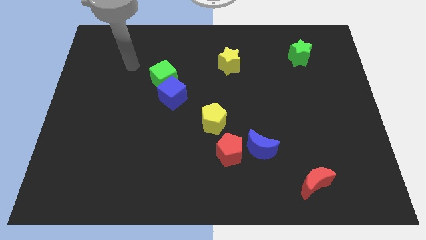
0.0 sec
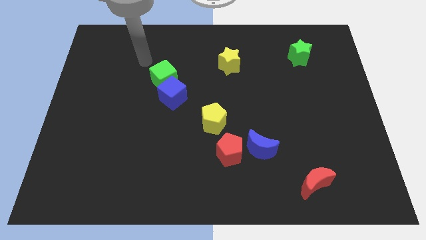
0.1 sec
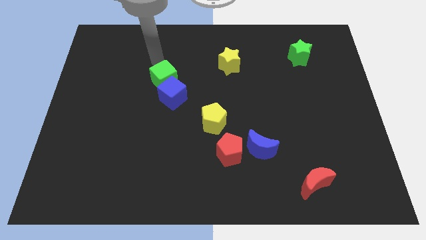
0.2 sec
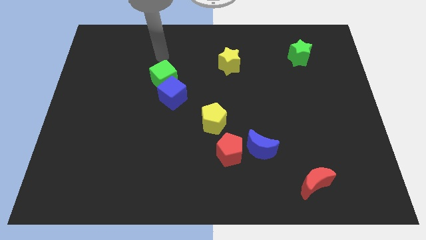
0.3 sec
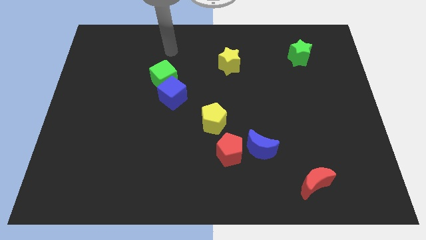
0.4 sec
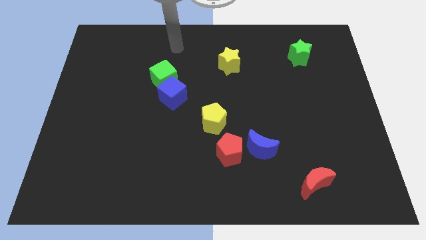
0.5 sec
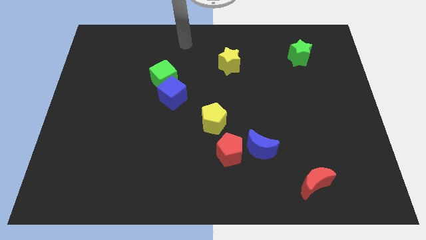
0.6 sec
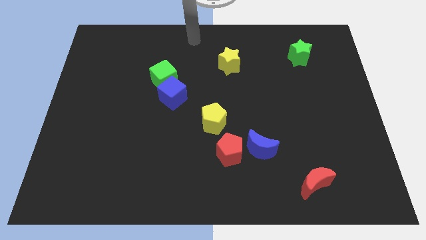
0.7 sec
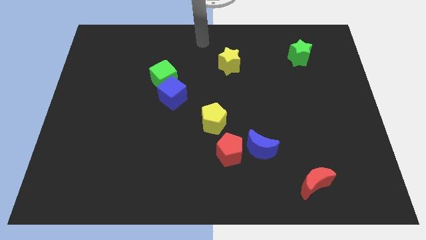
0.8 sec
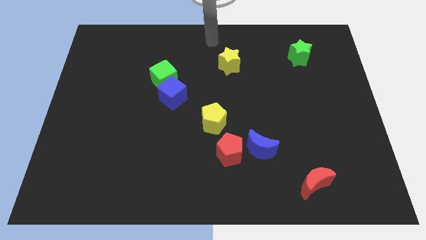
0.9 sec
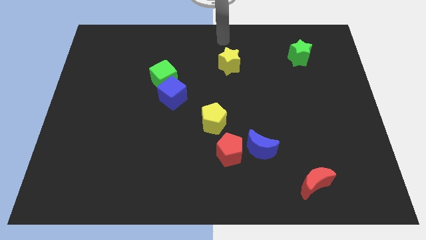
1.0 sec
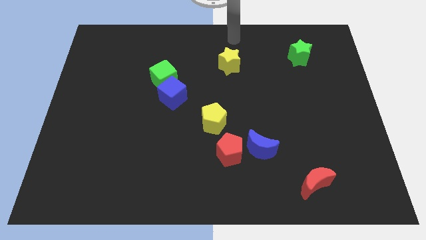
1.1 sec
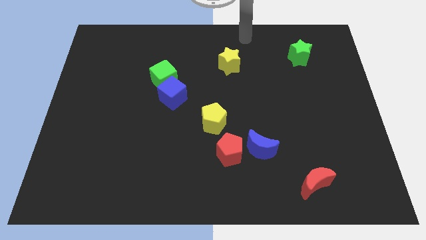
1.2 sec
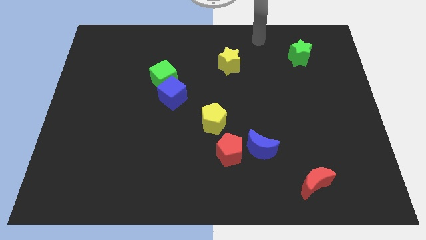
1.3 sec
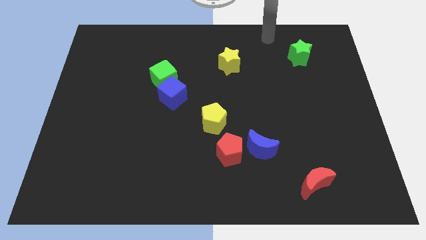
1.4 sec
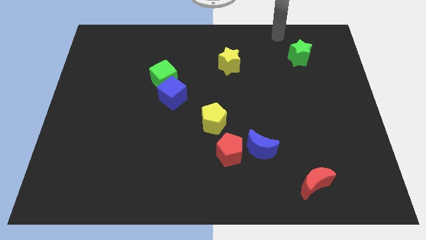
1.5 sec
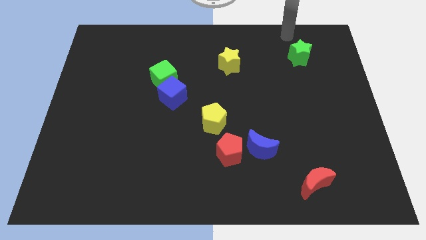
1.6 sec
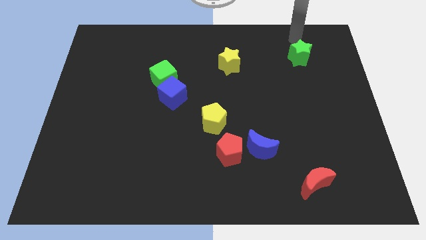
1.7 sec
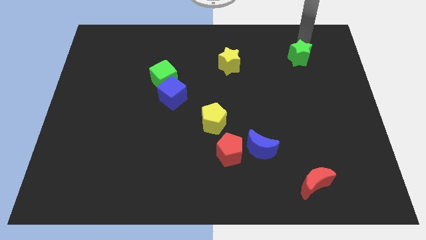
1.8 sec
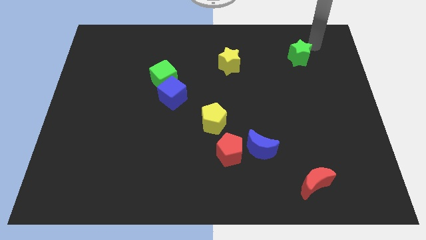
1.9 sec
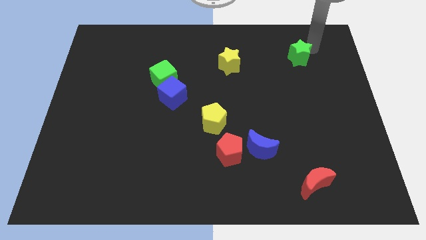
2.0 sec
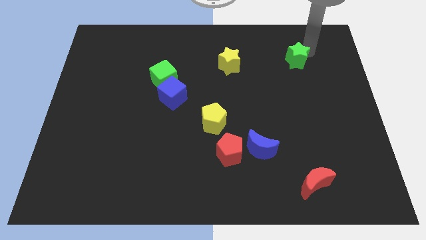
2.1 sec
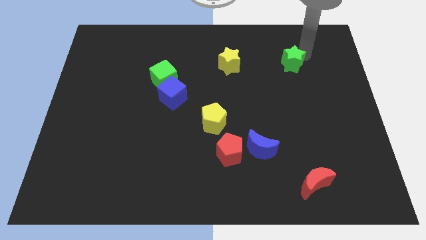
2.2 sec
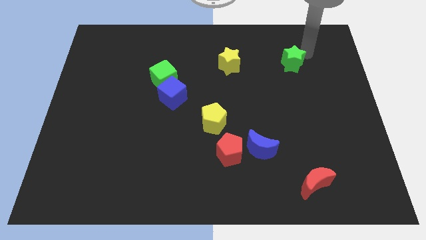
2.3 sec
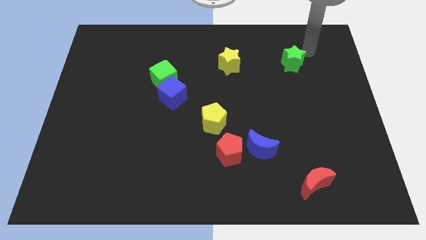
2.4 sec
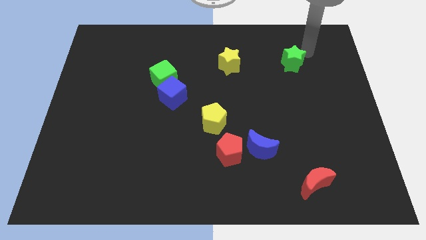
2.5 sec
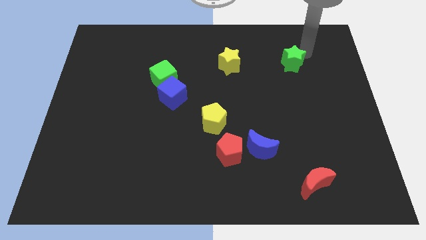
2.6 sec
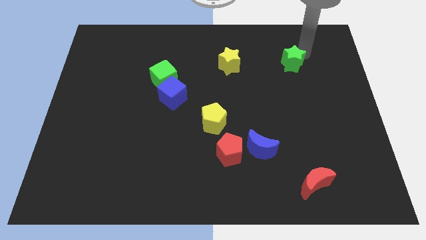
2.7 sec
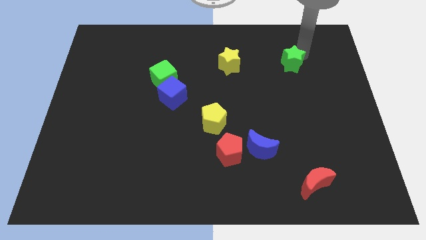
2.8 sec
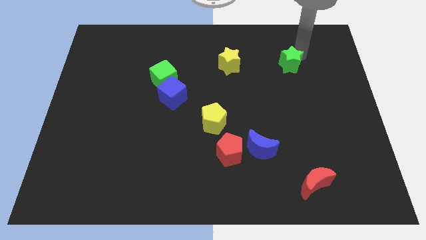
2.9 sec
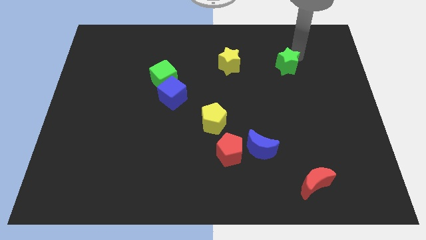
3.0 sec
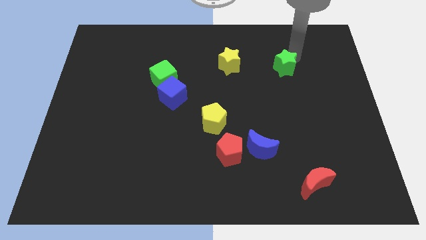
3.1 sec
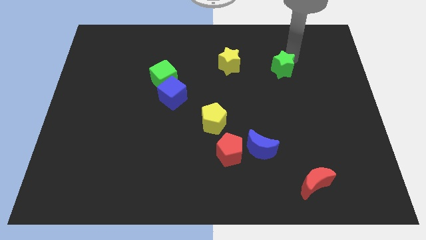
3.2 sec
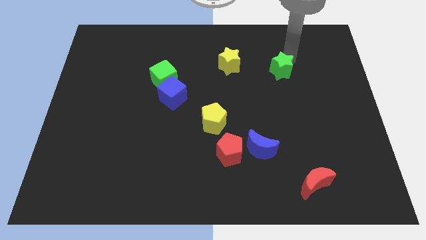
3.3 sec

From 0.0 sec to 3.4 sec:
slide the green star down and left diagonally a little bit

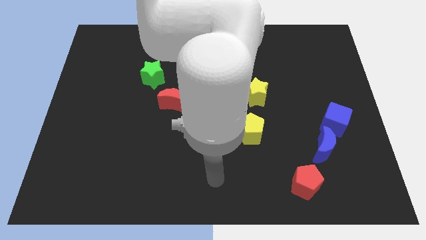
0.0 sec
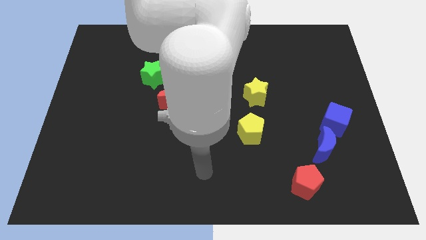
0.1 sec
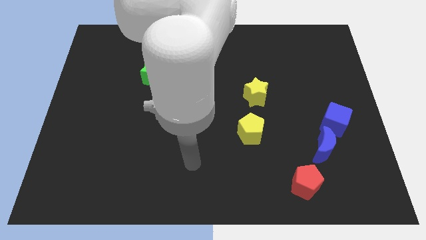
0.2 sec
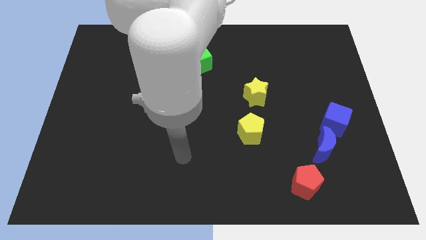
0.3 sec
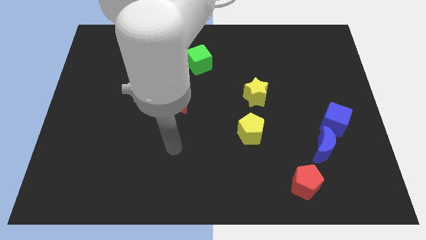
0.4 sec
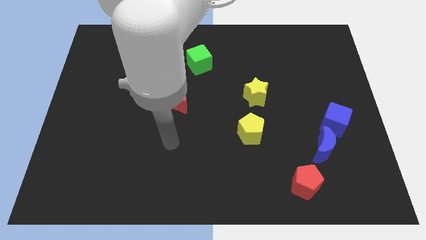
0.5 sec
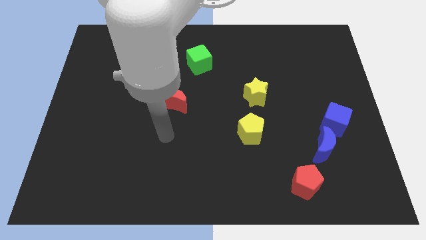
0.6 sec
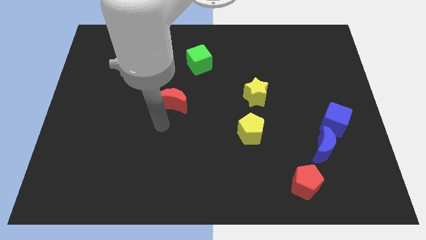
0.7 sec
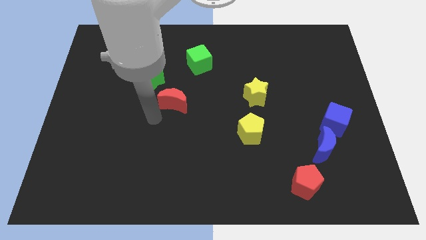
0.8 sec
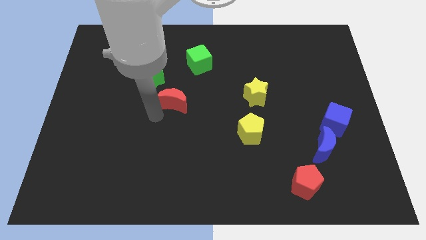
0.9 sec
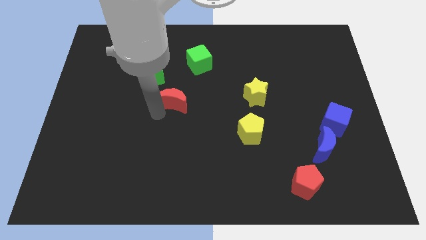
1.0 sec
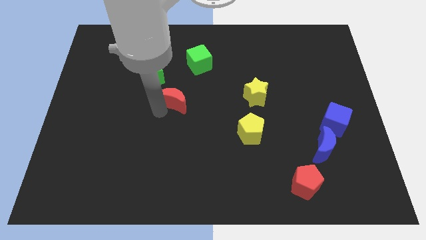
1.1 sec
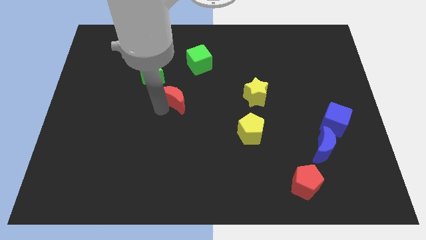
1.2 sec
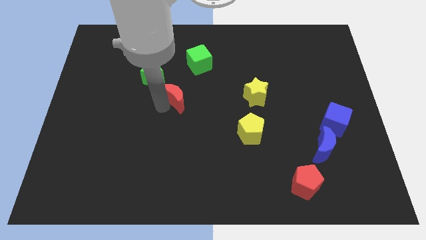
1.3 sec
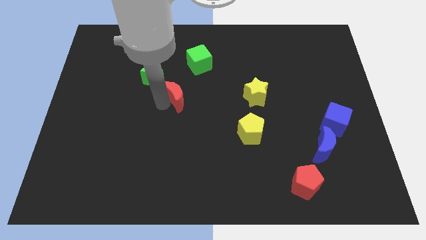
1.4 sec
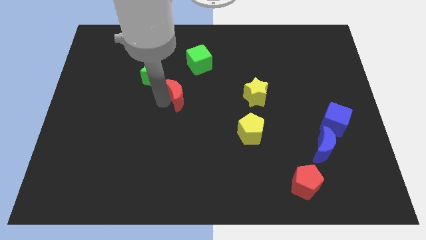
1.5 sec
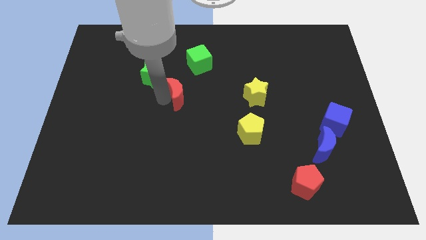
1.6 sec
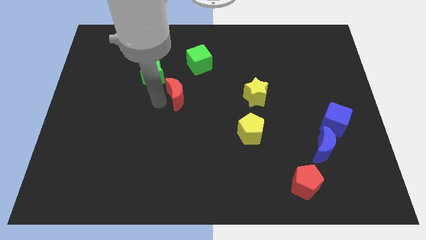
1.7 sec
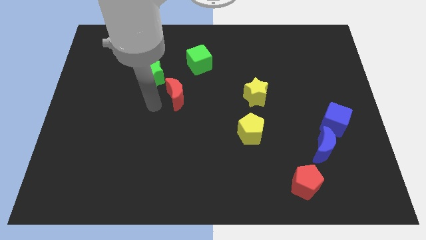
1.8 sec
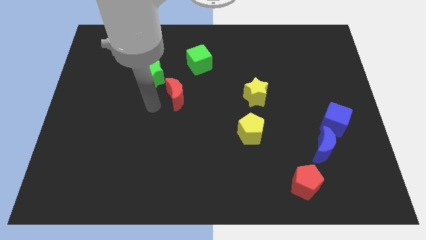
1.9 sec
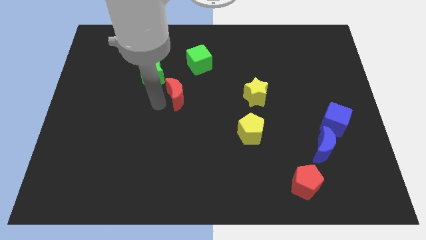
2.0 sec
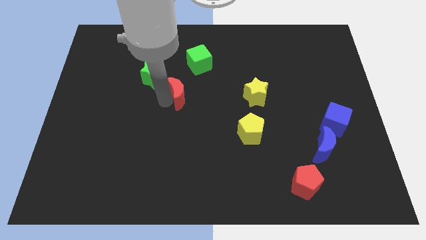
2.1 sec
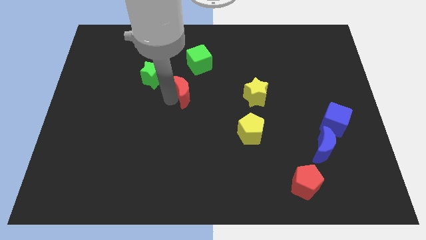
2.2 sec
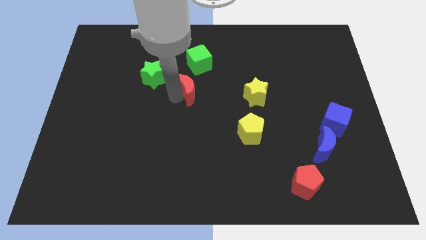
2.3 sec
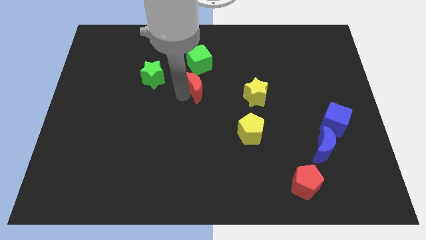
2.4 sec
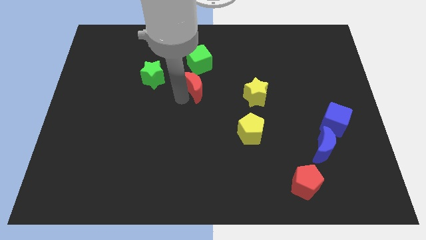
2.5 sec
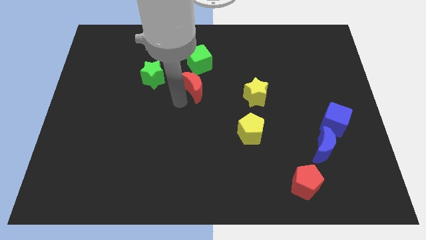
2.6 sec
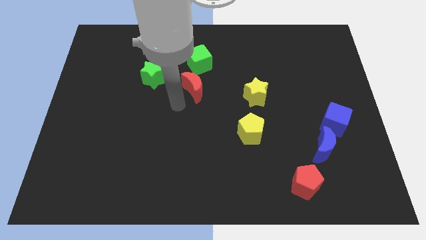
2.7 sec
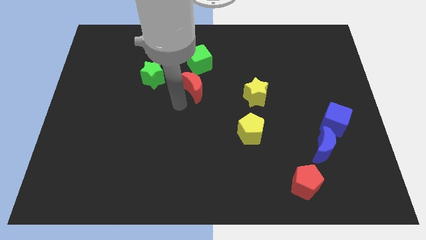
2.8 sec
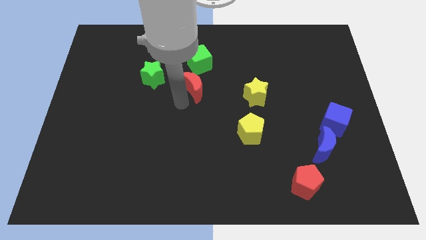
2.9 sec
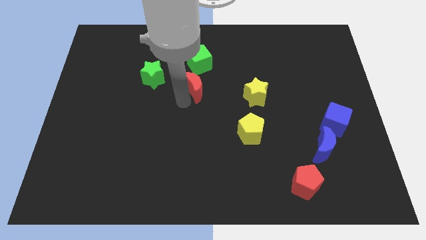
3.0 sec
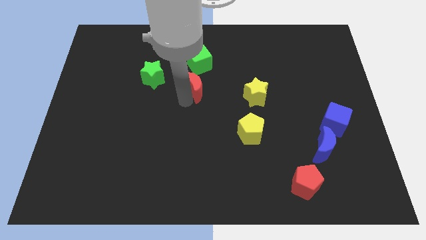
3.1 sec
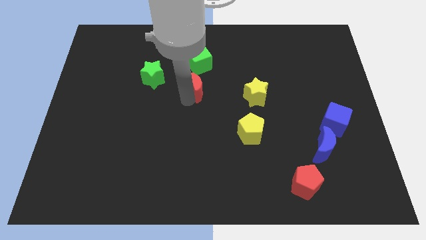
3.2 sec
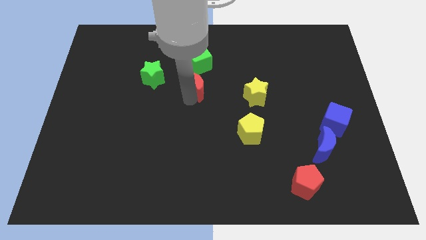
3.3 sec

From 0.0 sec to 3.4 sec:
move the red moon diagonally upwards and to the right a little

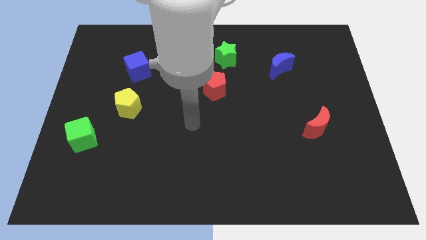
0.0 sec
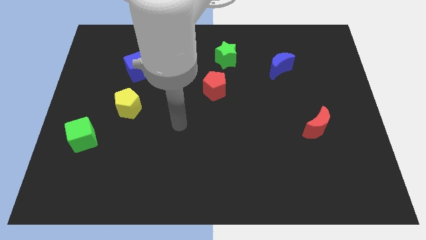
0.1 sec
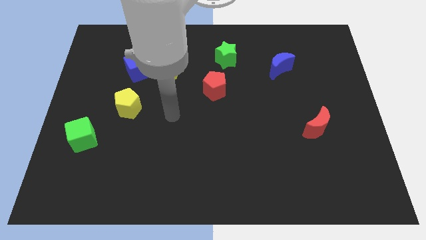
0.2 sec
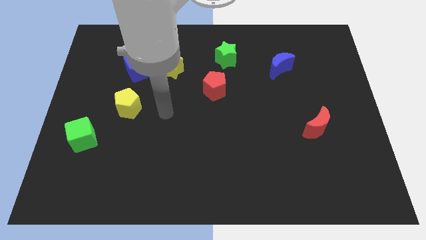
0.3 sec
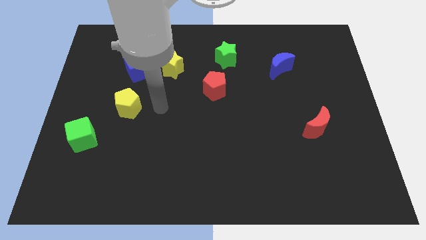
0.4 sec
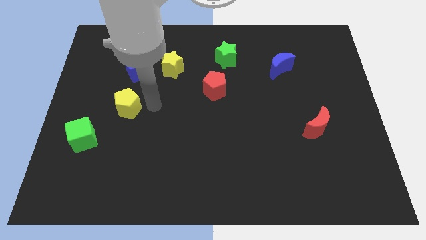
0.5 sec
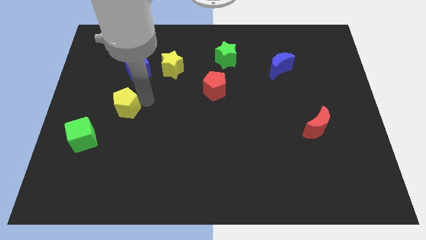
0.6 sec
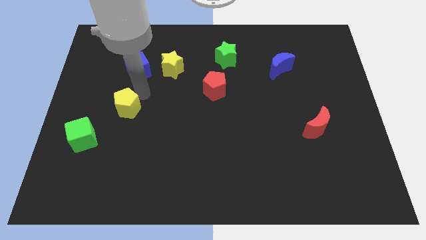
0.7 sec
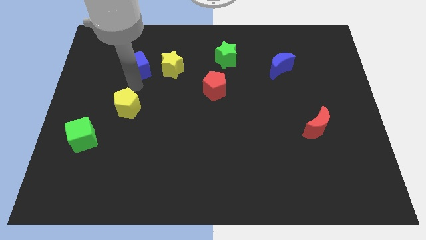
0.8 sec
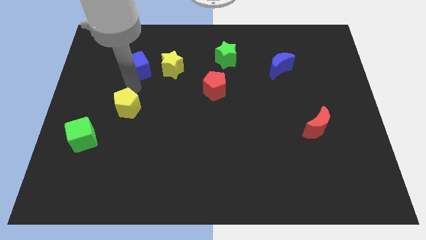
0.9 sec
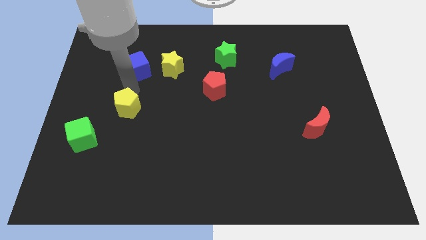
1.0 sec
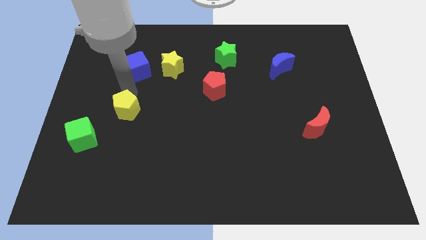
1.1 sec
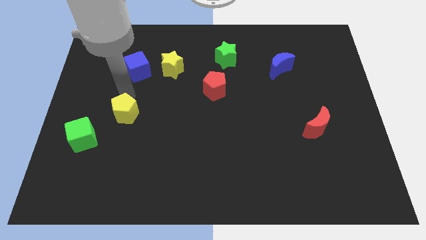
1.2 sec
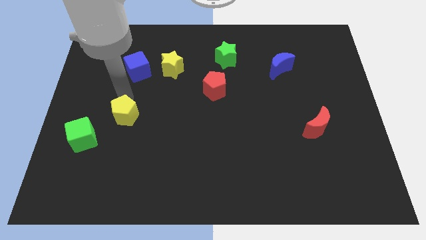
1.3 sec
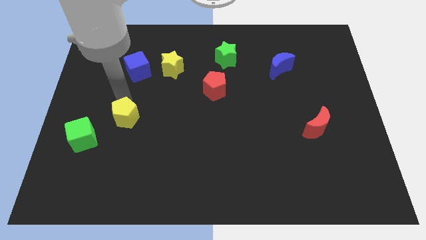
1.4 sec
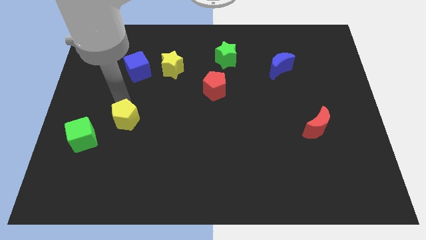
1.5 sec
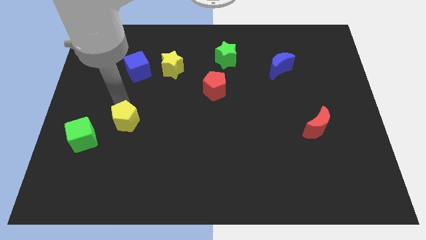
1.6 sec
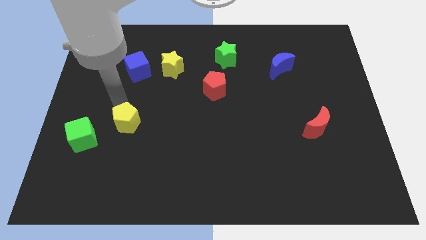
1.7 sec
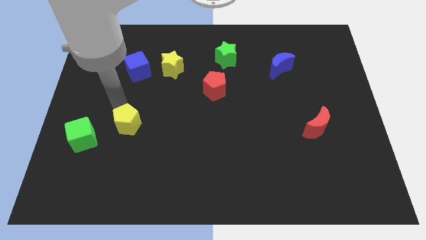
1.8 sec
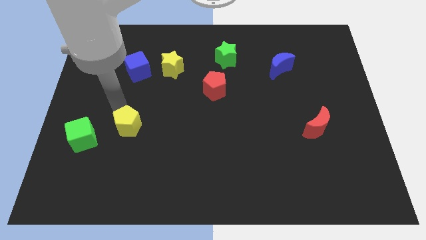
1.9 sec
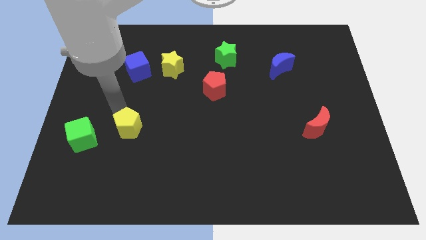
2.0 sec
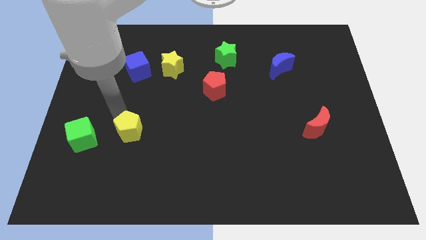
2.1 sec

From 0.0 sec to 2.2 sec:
slightly push the yellow pentagon down
